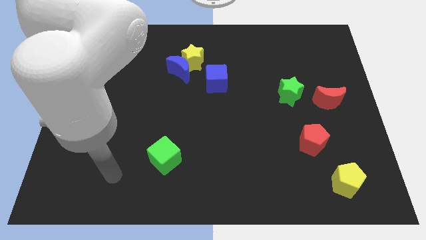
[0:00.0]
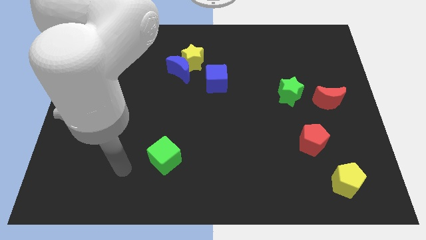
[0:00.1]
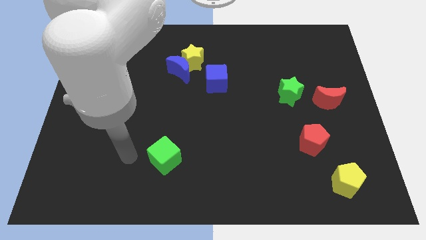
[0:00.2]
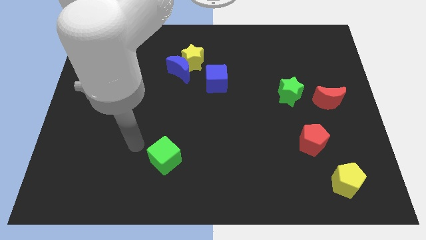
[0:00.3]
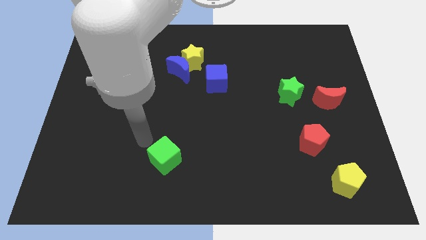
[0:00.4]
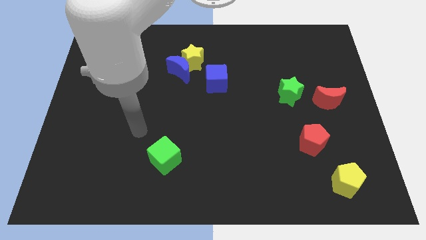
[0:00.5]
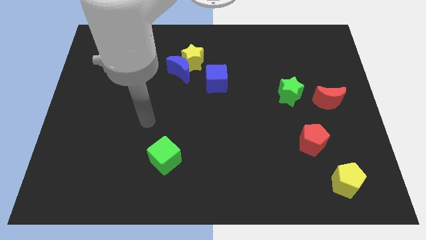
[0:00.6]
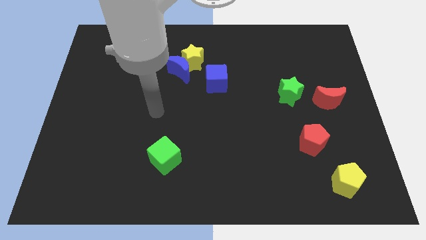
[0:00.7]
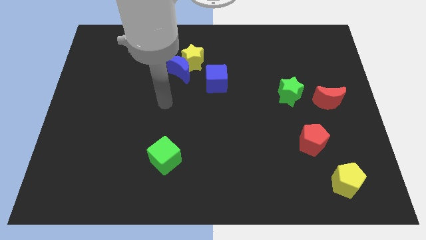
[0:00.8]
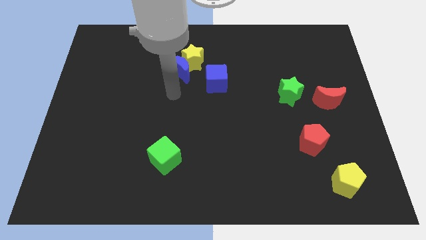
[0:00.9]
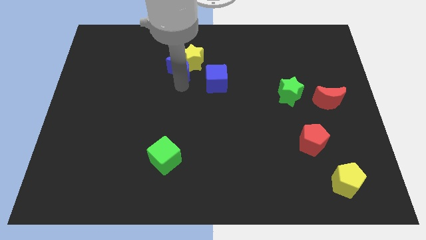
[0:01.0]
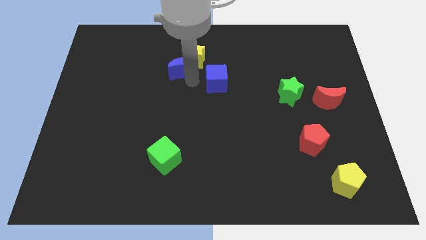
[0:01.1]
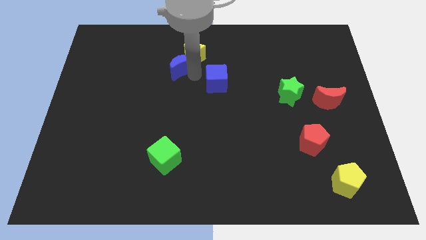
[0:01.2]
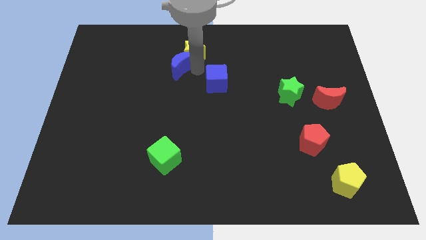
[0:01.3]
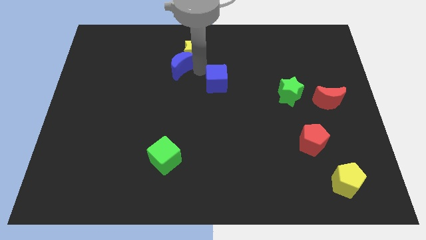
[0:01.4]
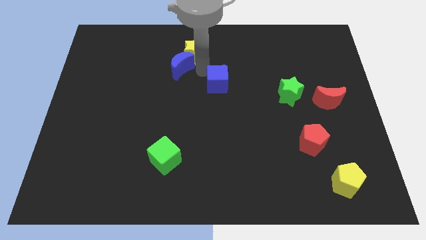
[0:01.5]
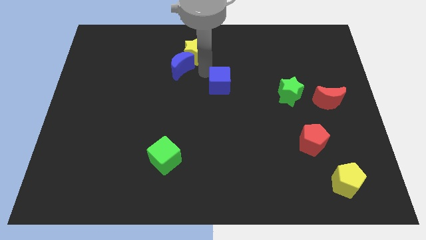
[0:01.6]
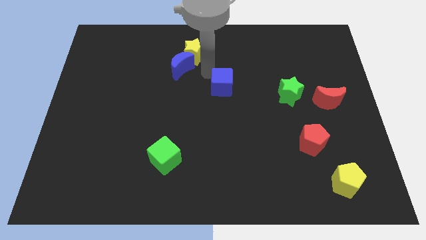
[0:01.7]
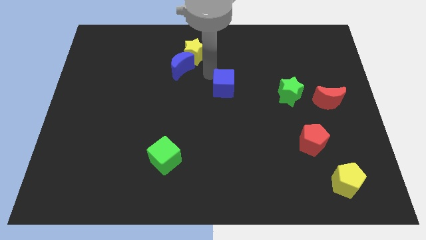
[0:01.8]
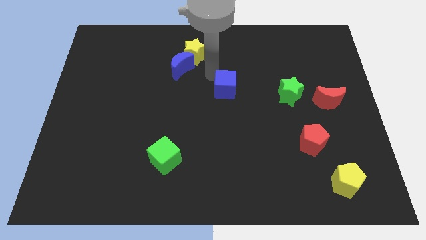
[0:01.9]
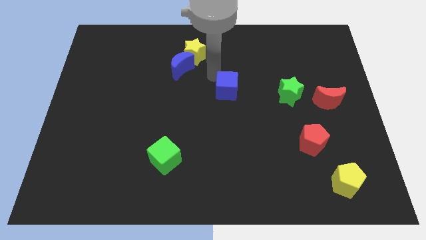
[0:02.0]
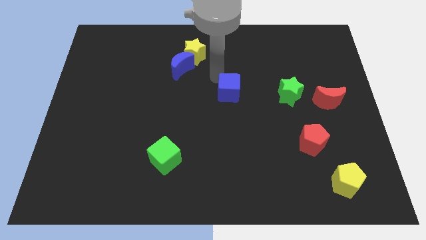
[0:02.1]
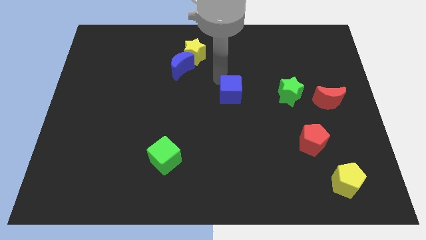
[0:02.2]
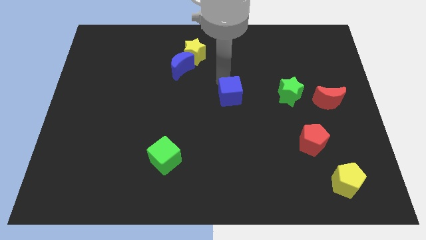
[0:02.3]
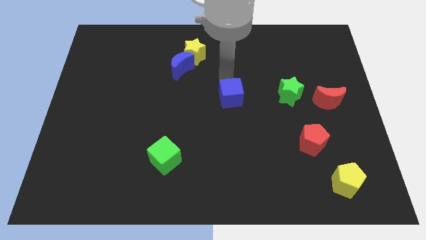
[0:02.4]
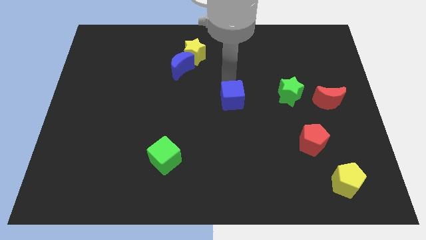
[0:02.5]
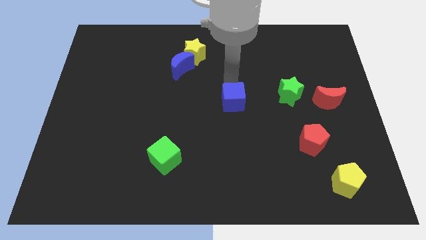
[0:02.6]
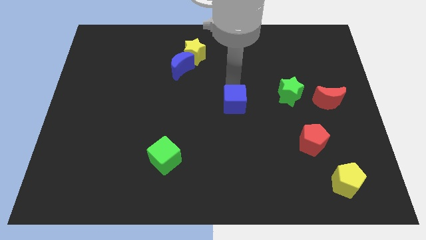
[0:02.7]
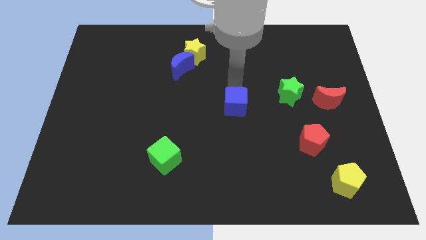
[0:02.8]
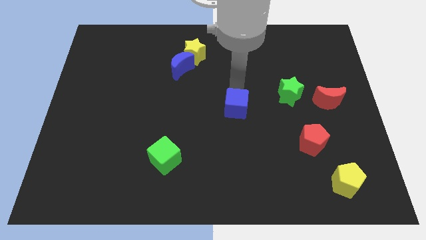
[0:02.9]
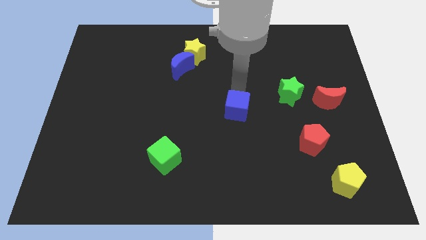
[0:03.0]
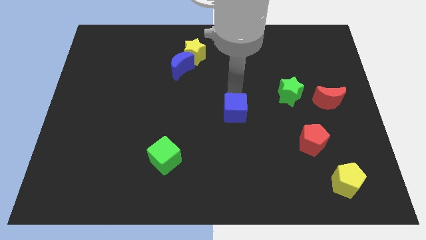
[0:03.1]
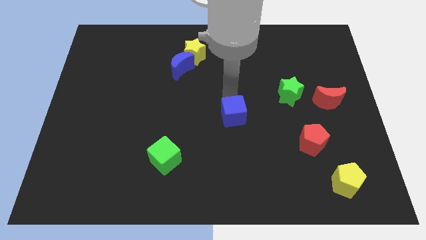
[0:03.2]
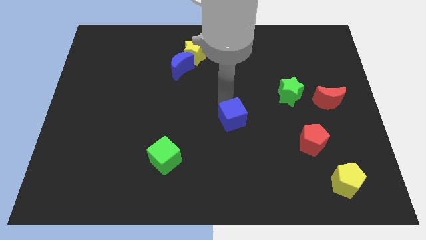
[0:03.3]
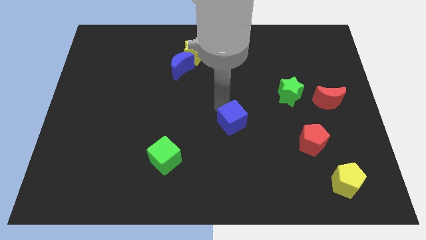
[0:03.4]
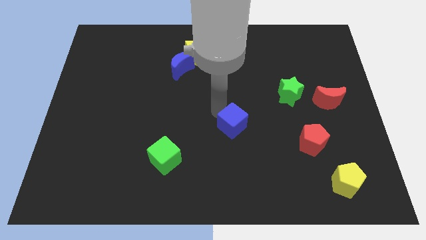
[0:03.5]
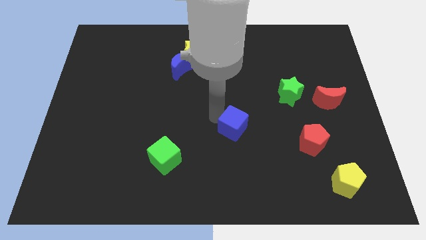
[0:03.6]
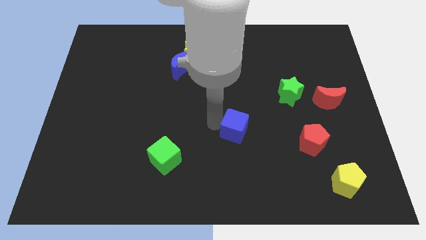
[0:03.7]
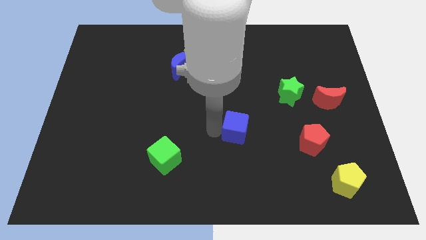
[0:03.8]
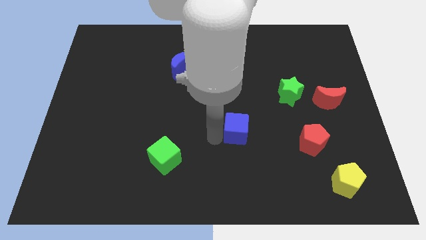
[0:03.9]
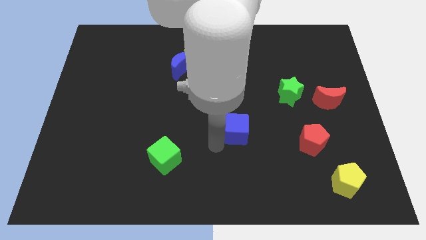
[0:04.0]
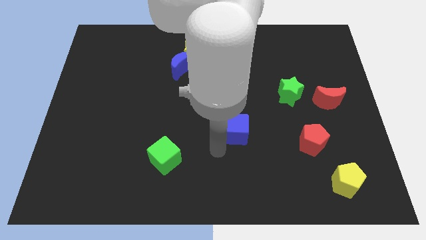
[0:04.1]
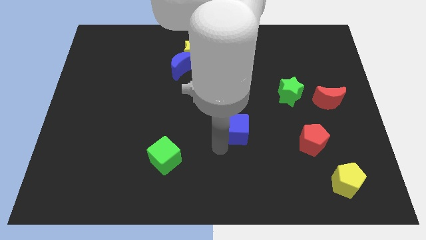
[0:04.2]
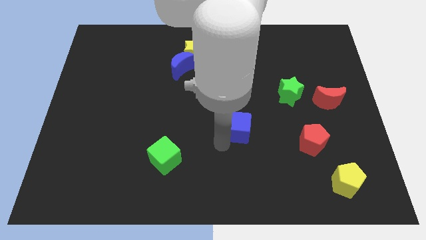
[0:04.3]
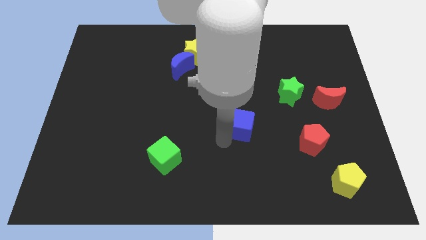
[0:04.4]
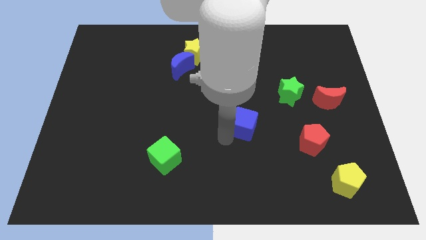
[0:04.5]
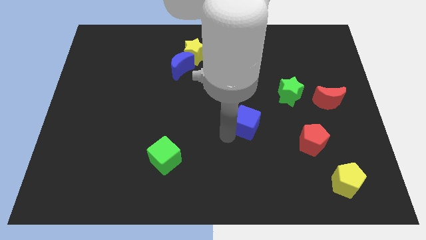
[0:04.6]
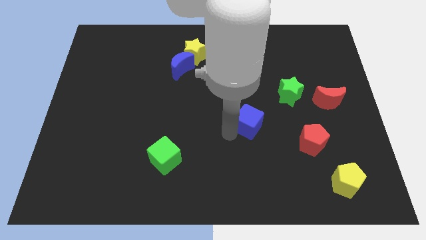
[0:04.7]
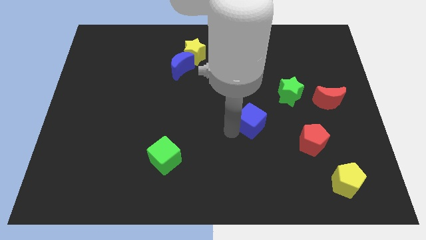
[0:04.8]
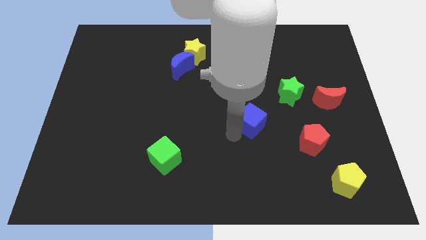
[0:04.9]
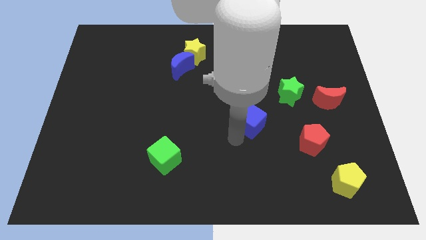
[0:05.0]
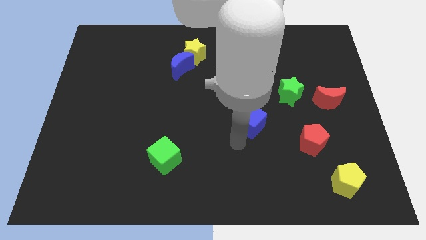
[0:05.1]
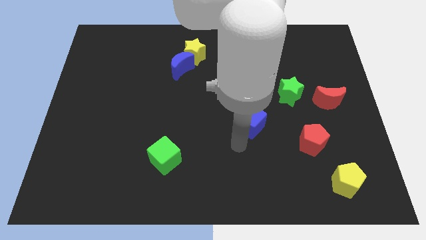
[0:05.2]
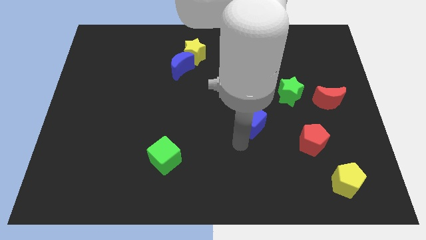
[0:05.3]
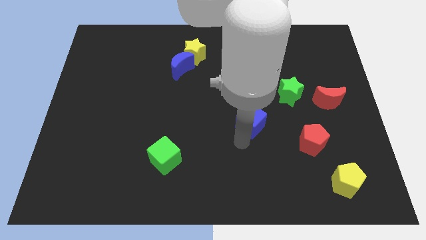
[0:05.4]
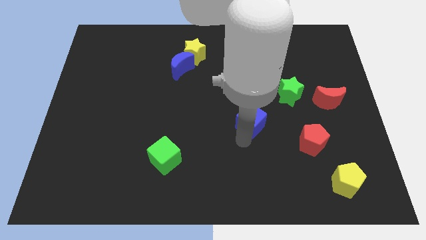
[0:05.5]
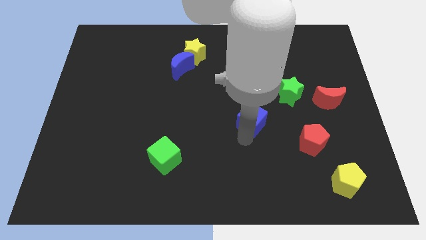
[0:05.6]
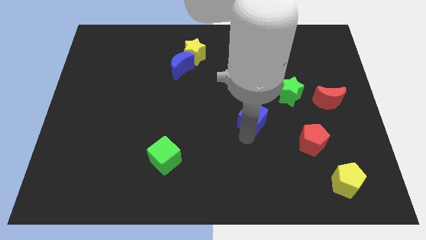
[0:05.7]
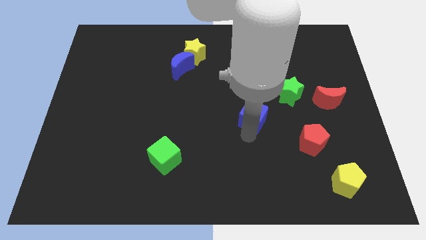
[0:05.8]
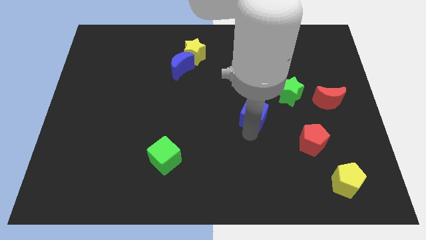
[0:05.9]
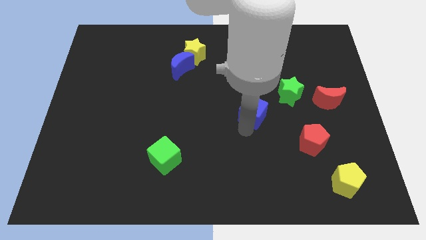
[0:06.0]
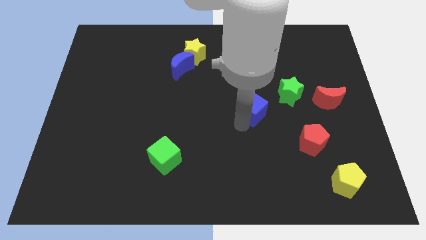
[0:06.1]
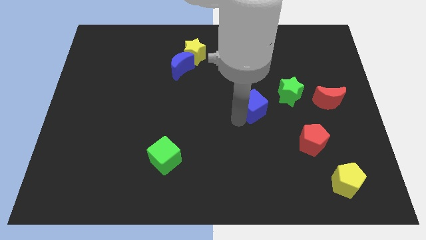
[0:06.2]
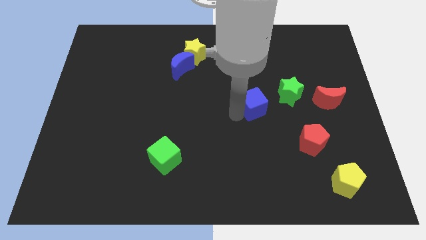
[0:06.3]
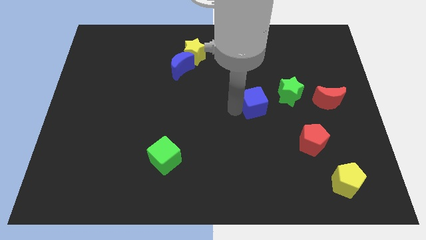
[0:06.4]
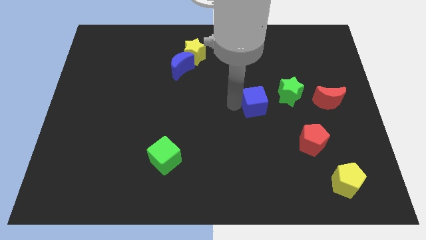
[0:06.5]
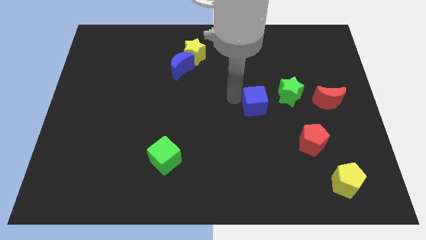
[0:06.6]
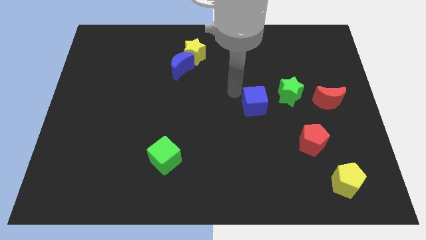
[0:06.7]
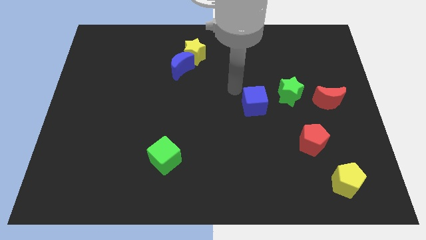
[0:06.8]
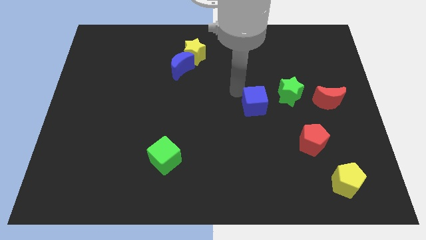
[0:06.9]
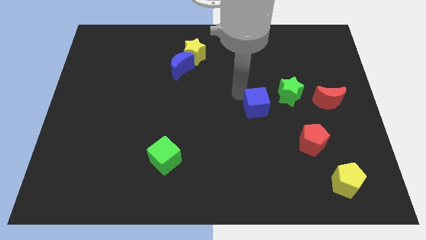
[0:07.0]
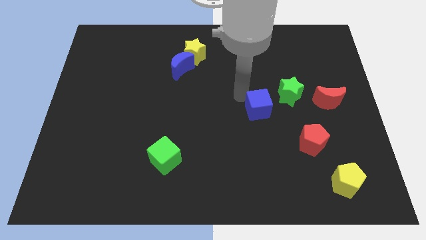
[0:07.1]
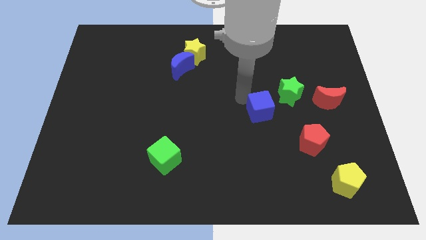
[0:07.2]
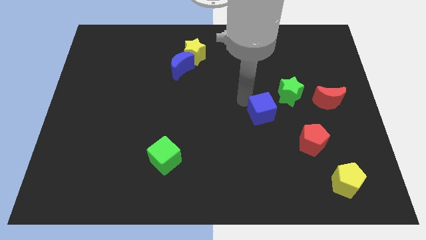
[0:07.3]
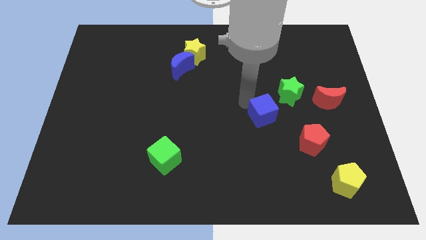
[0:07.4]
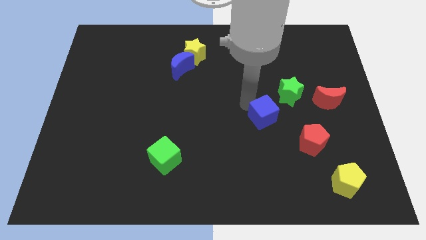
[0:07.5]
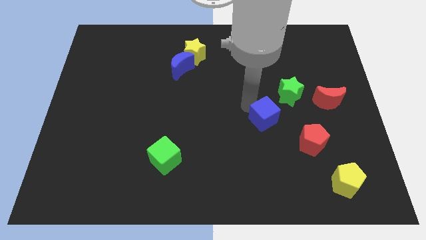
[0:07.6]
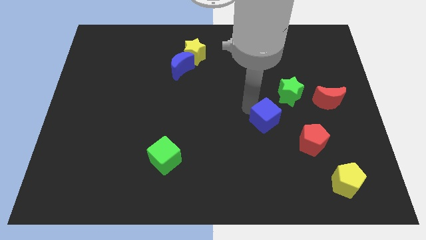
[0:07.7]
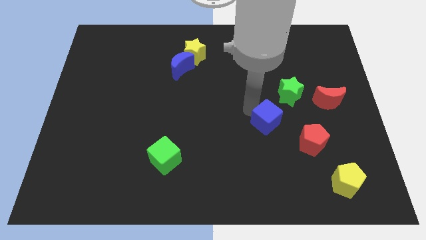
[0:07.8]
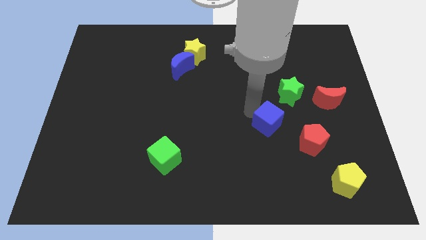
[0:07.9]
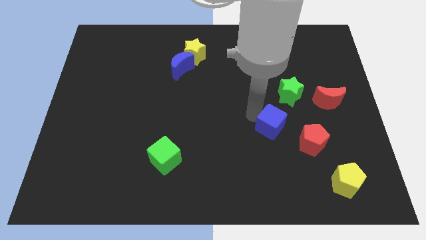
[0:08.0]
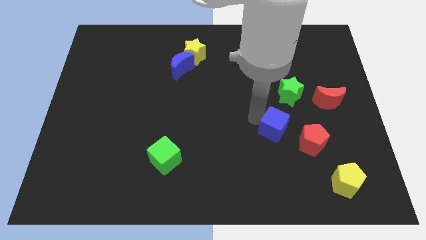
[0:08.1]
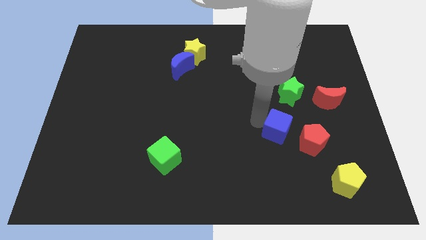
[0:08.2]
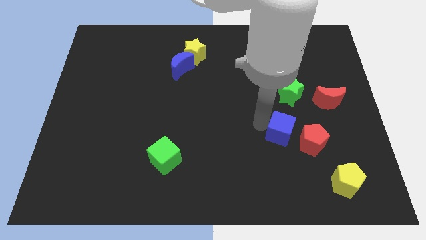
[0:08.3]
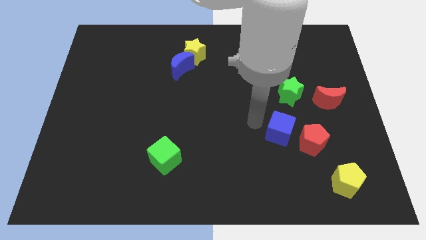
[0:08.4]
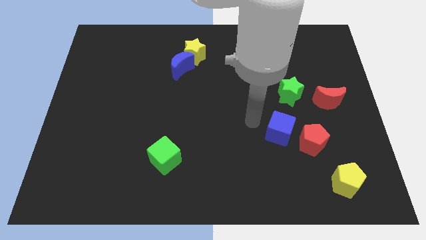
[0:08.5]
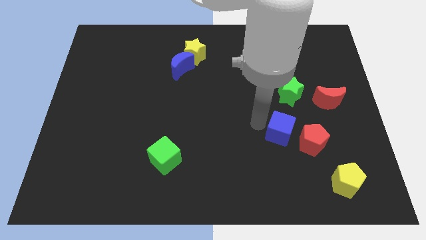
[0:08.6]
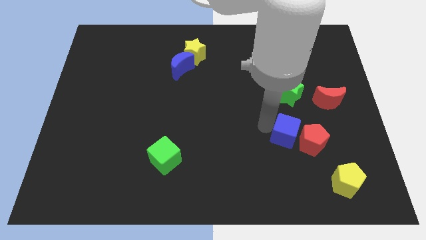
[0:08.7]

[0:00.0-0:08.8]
put the blue cube towards the red pentagon
